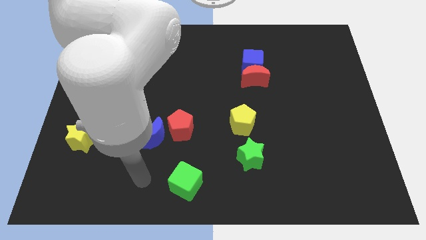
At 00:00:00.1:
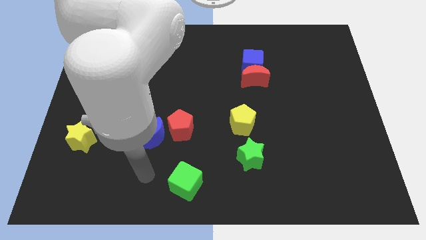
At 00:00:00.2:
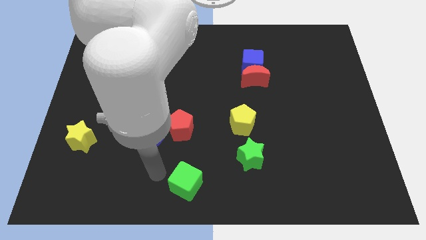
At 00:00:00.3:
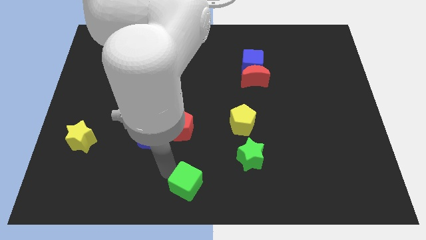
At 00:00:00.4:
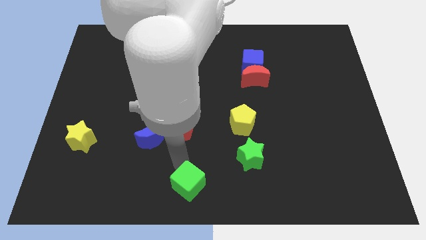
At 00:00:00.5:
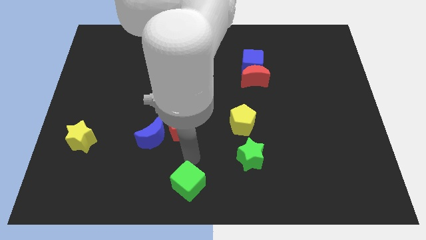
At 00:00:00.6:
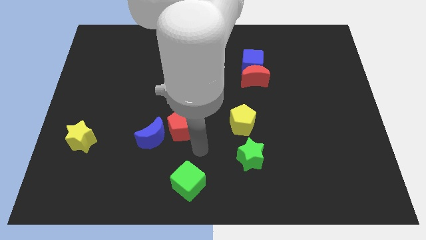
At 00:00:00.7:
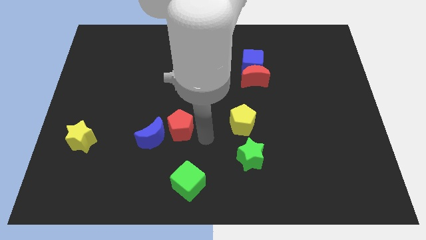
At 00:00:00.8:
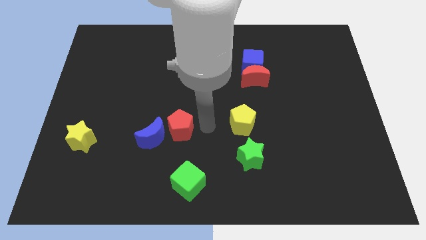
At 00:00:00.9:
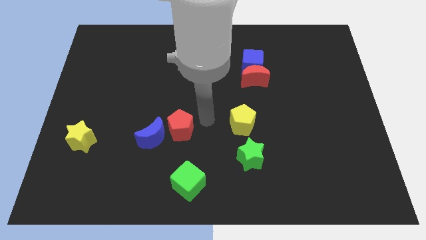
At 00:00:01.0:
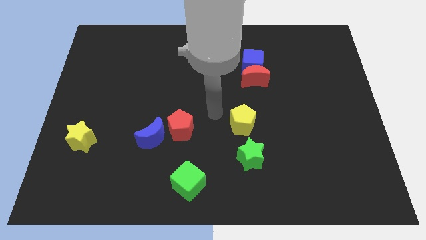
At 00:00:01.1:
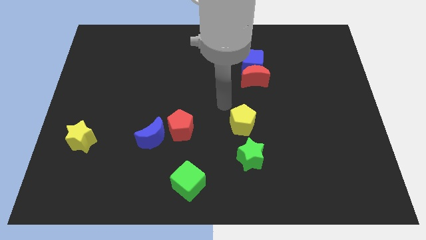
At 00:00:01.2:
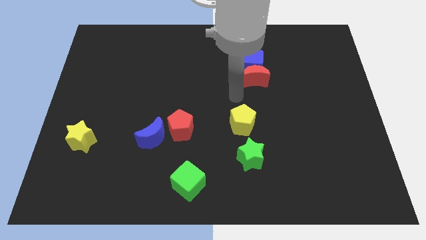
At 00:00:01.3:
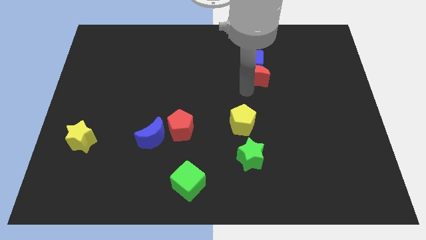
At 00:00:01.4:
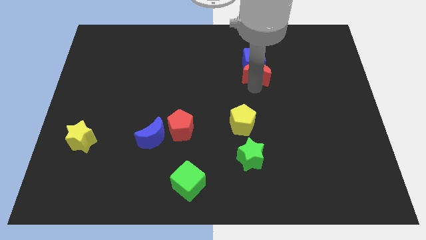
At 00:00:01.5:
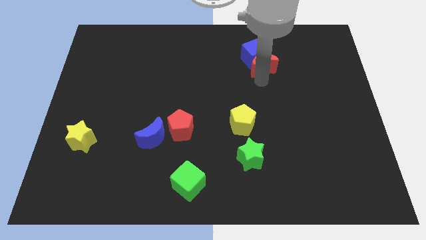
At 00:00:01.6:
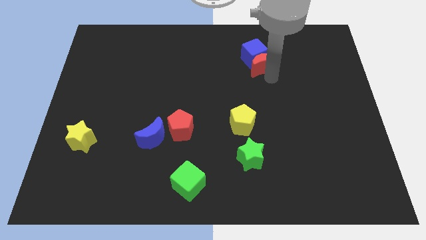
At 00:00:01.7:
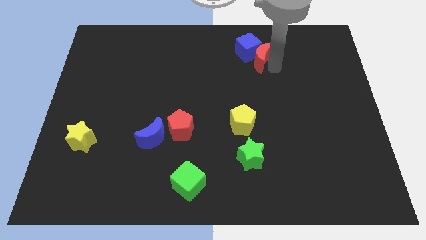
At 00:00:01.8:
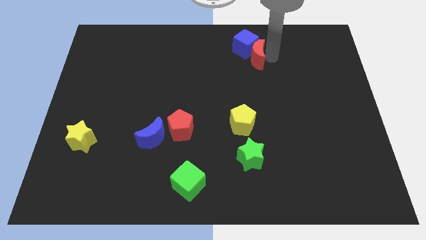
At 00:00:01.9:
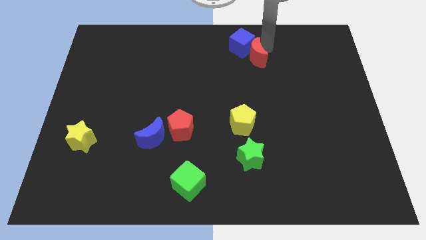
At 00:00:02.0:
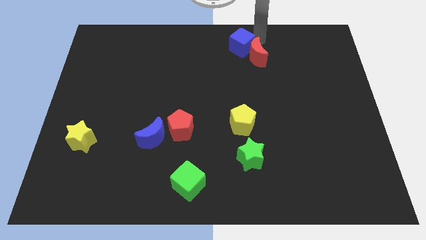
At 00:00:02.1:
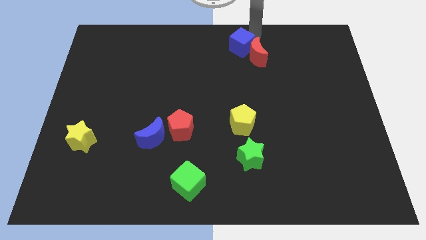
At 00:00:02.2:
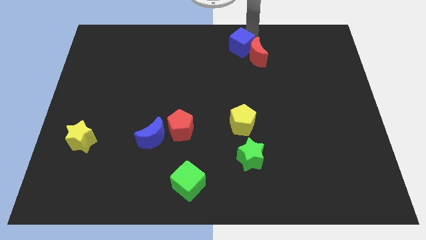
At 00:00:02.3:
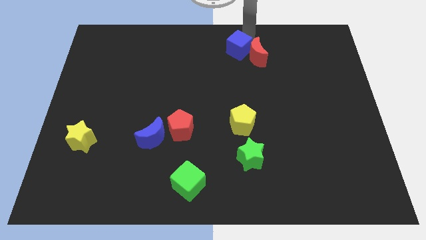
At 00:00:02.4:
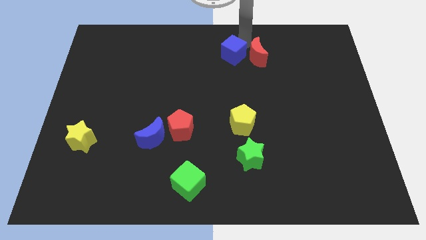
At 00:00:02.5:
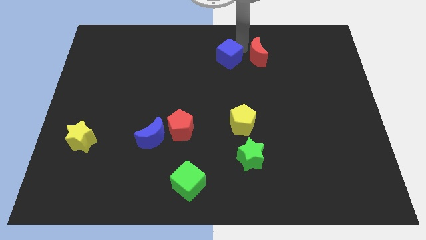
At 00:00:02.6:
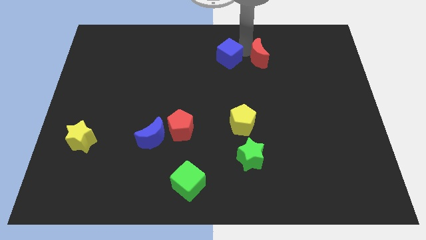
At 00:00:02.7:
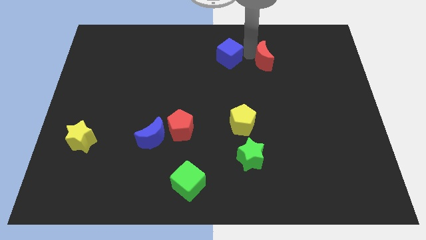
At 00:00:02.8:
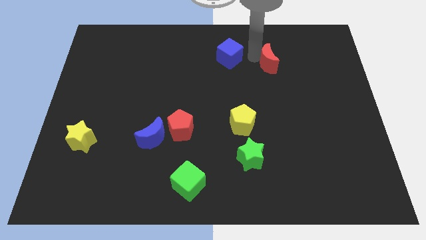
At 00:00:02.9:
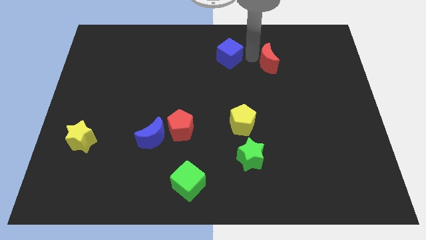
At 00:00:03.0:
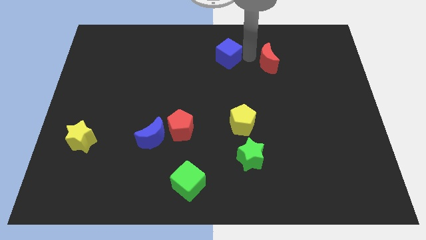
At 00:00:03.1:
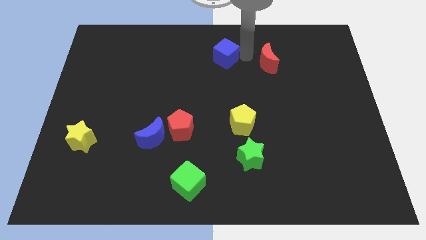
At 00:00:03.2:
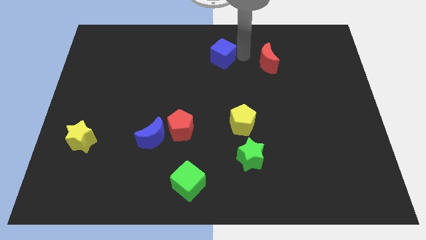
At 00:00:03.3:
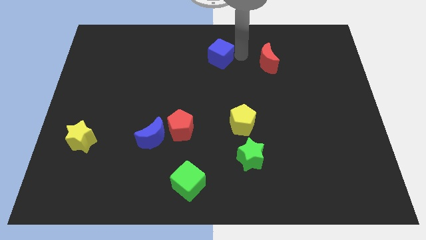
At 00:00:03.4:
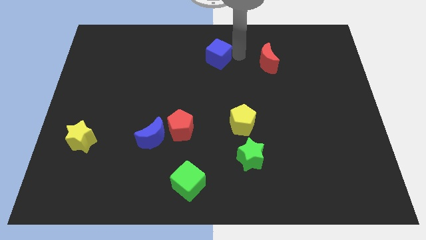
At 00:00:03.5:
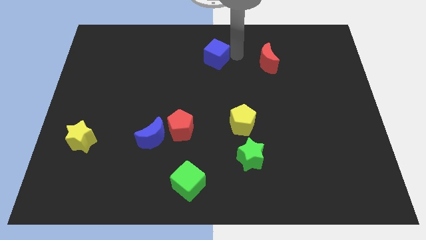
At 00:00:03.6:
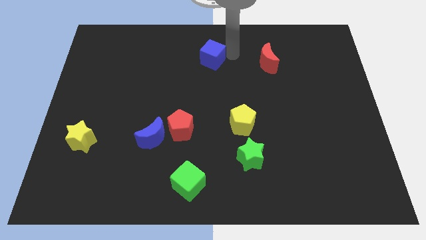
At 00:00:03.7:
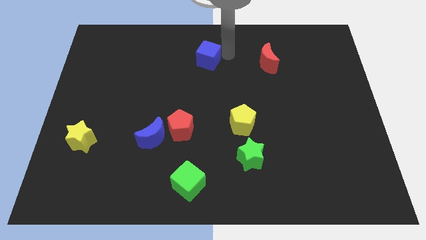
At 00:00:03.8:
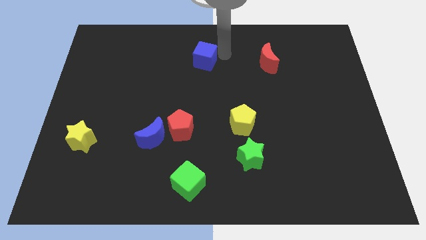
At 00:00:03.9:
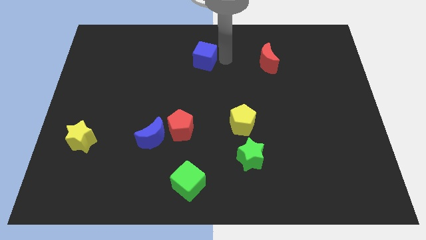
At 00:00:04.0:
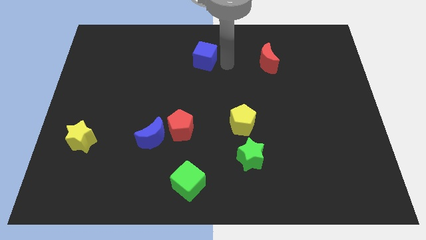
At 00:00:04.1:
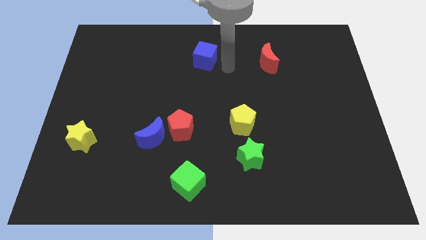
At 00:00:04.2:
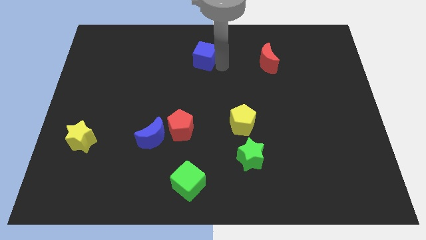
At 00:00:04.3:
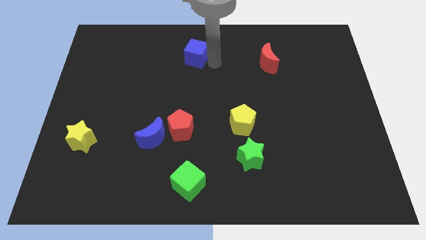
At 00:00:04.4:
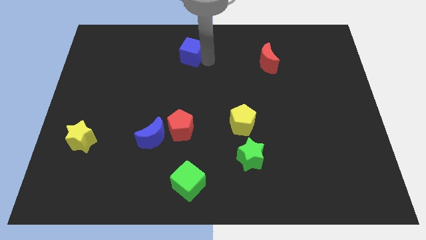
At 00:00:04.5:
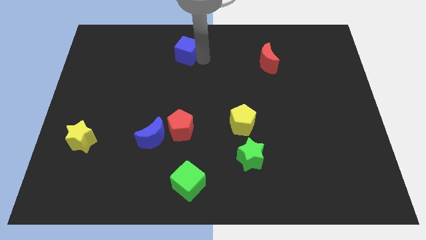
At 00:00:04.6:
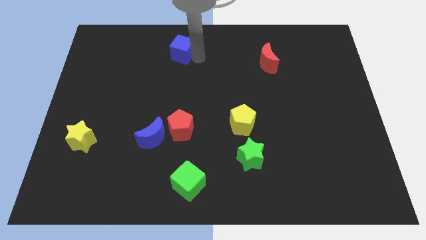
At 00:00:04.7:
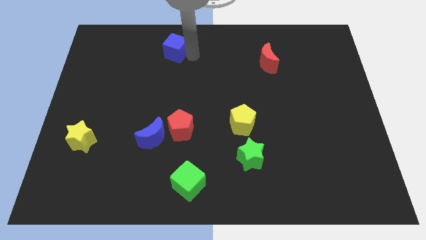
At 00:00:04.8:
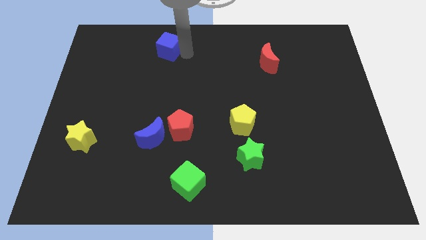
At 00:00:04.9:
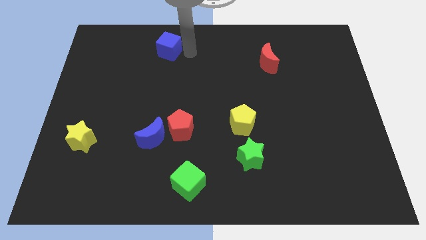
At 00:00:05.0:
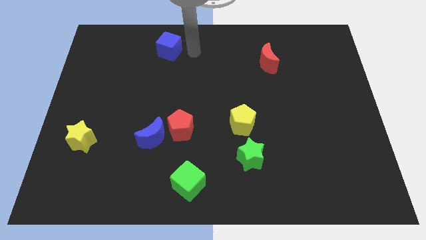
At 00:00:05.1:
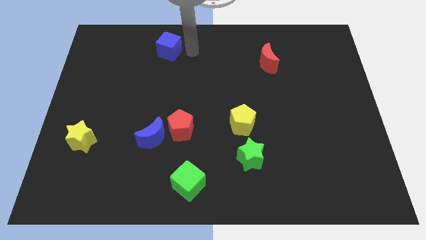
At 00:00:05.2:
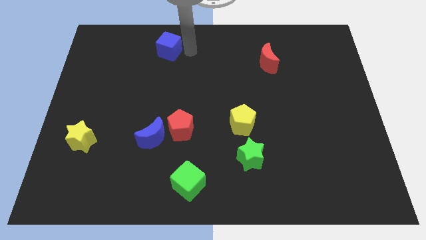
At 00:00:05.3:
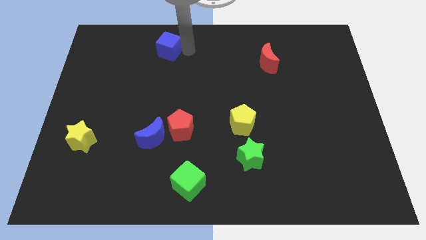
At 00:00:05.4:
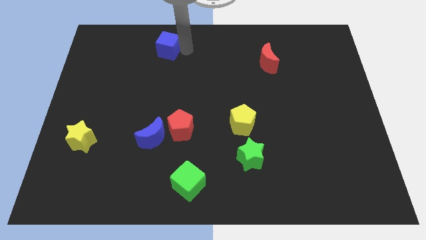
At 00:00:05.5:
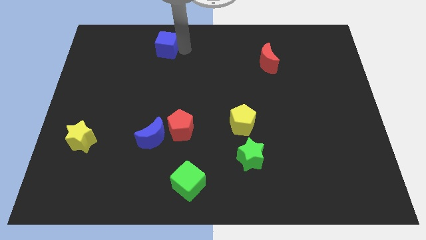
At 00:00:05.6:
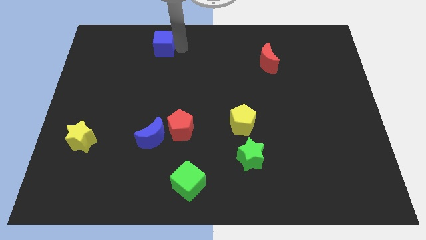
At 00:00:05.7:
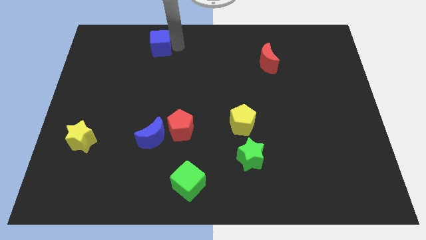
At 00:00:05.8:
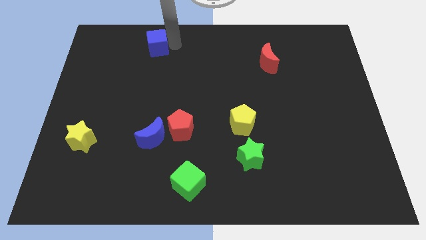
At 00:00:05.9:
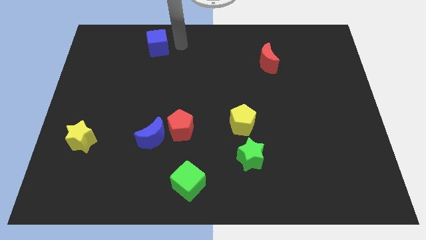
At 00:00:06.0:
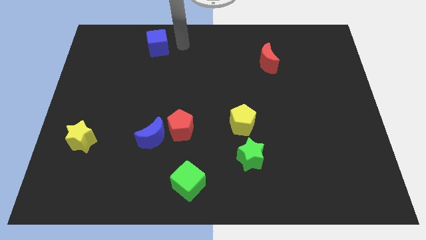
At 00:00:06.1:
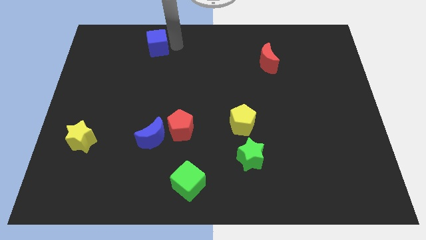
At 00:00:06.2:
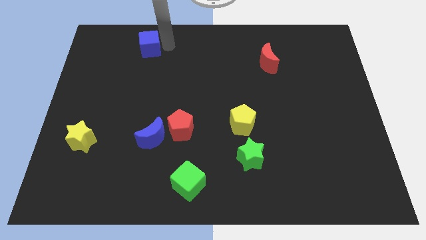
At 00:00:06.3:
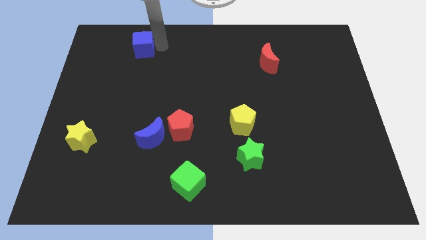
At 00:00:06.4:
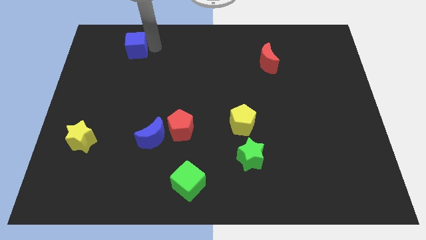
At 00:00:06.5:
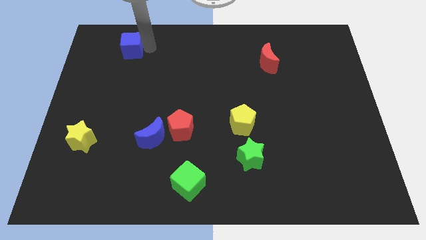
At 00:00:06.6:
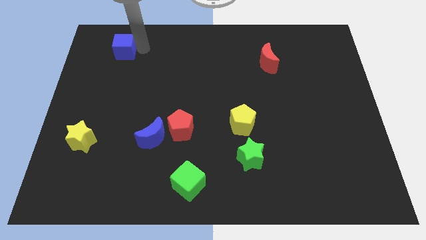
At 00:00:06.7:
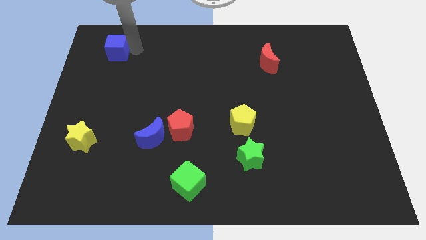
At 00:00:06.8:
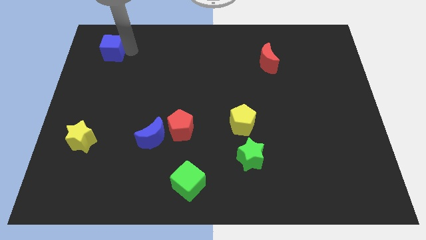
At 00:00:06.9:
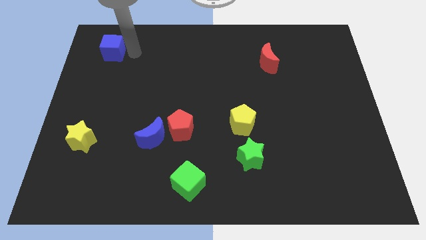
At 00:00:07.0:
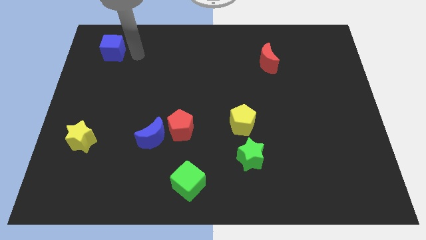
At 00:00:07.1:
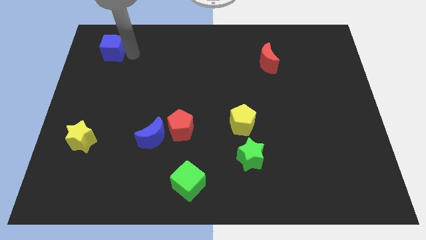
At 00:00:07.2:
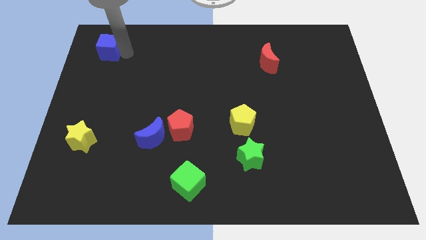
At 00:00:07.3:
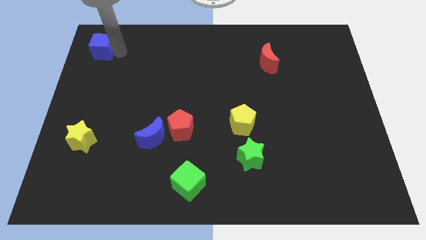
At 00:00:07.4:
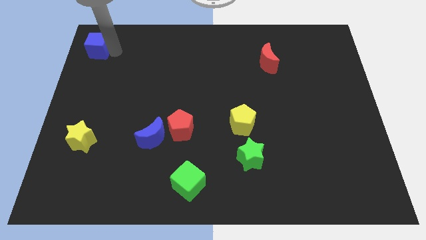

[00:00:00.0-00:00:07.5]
push the blue cube to the top left of the board
